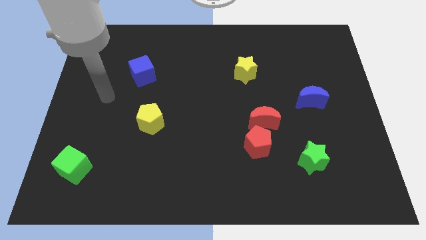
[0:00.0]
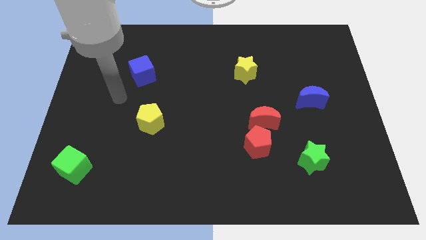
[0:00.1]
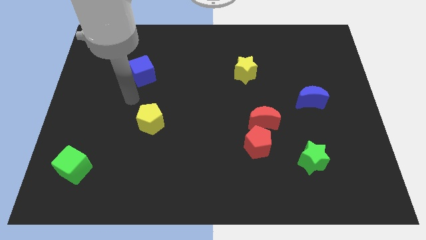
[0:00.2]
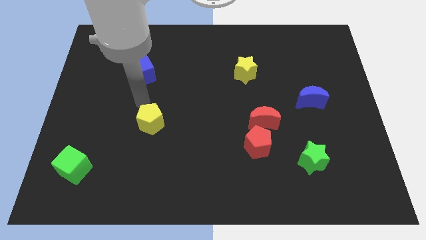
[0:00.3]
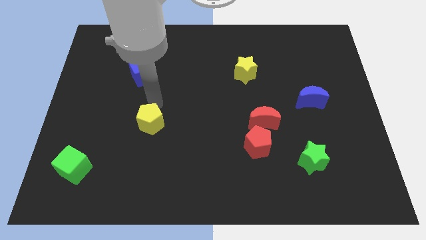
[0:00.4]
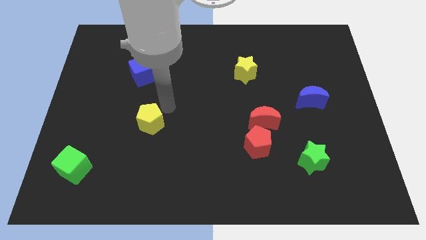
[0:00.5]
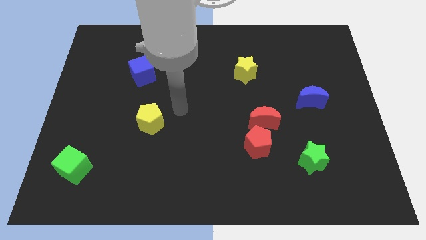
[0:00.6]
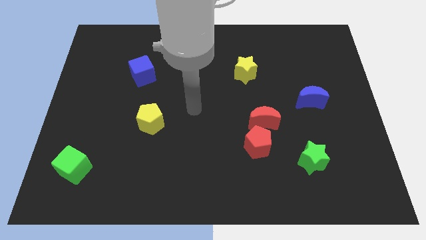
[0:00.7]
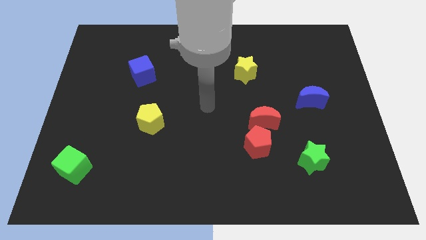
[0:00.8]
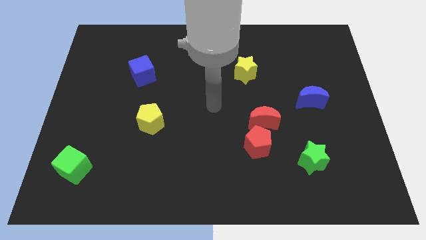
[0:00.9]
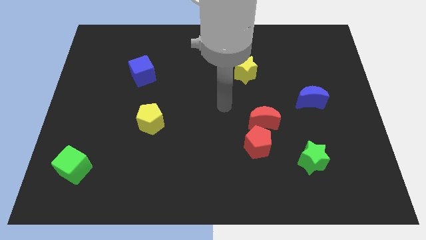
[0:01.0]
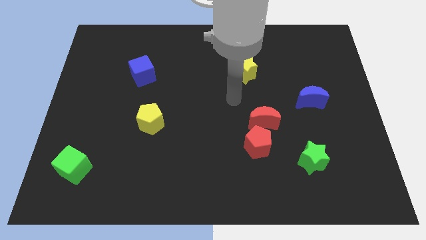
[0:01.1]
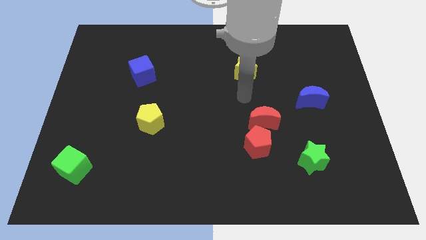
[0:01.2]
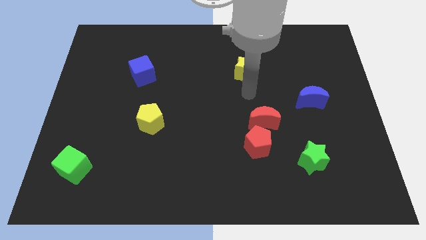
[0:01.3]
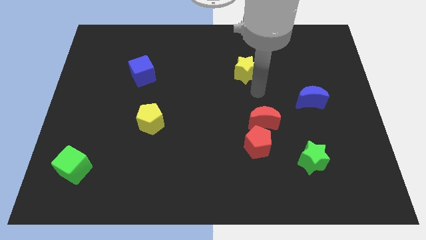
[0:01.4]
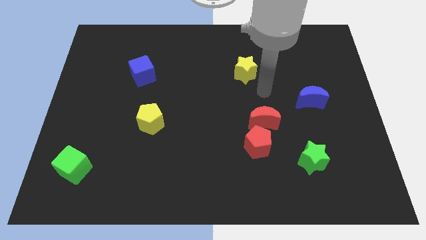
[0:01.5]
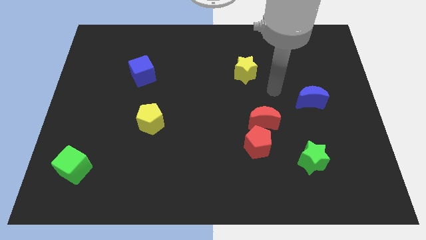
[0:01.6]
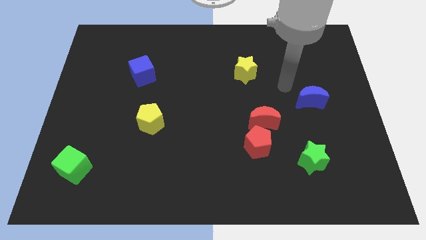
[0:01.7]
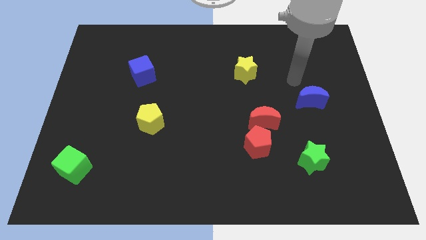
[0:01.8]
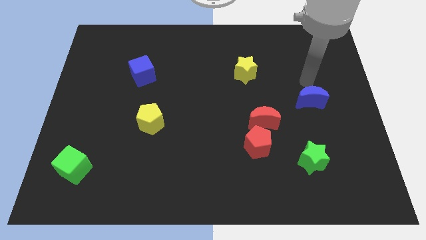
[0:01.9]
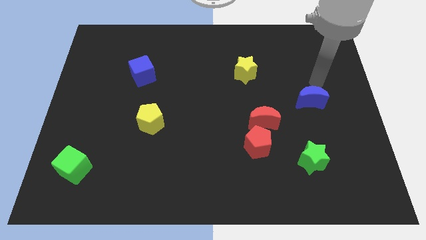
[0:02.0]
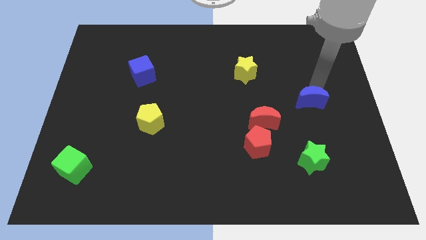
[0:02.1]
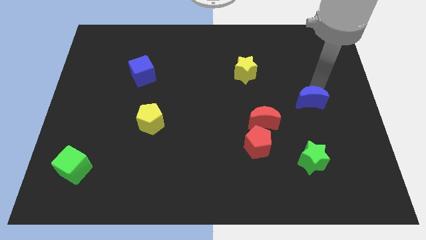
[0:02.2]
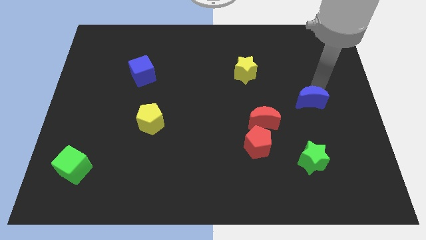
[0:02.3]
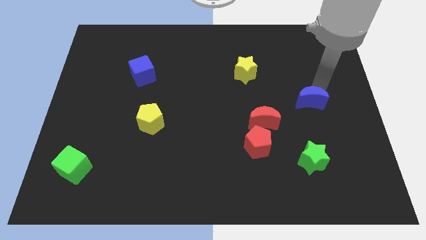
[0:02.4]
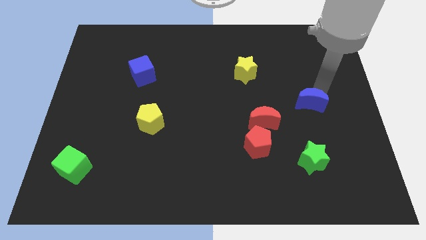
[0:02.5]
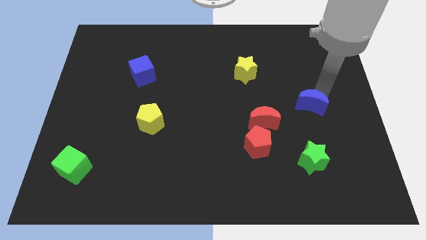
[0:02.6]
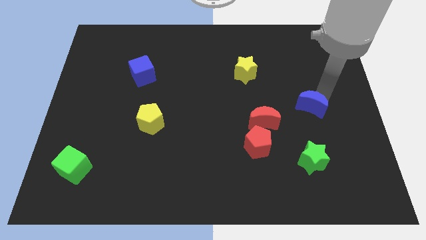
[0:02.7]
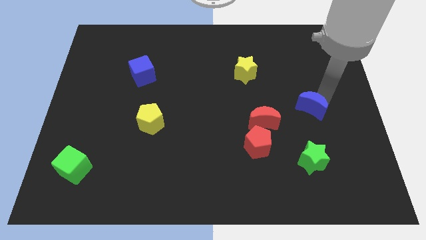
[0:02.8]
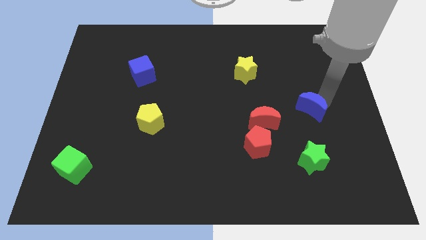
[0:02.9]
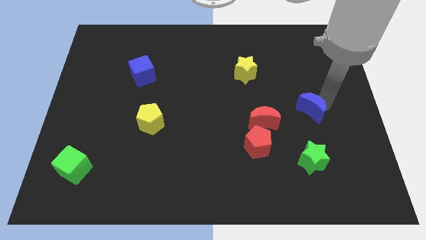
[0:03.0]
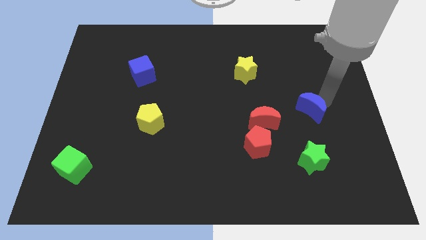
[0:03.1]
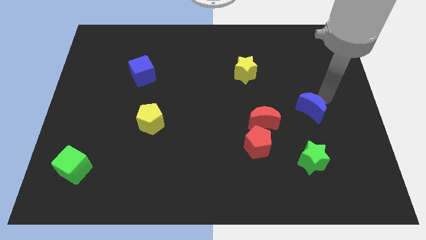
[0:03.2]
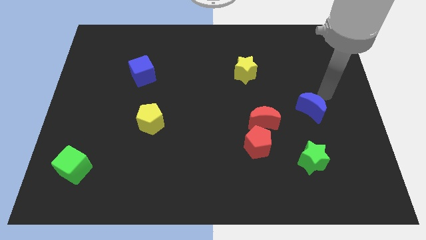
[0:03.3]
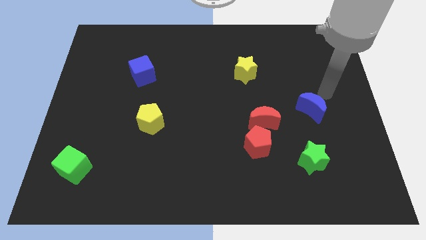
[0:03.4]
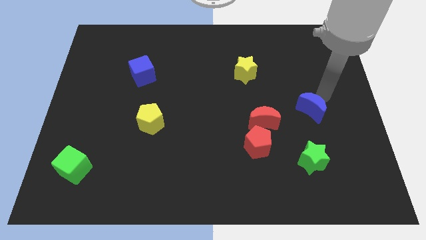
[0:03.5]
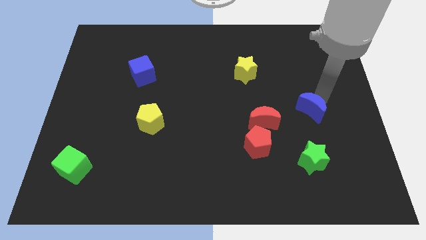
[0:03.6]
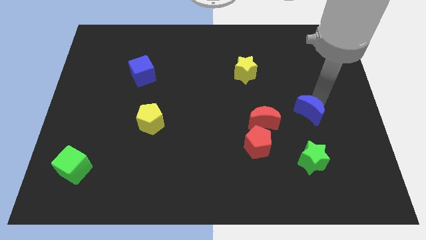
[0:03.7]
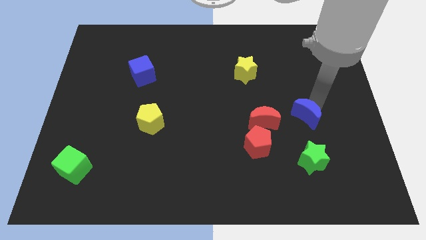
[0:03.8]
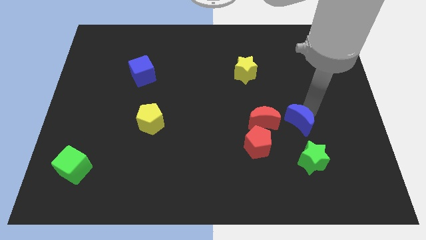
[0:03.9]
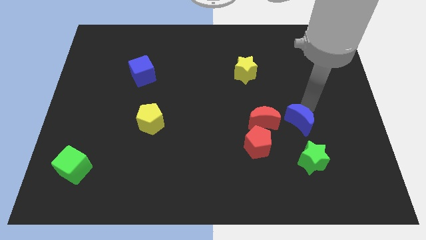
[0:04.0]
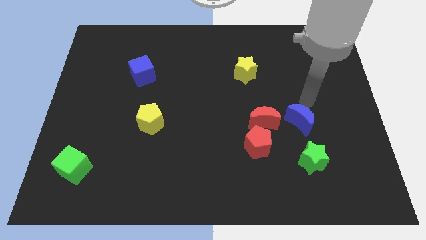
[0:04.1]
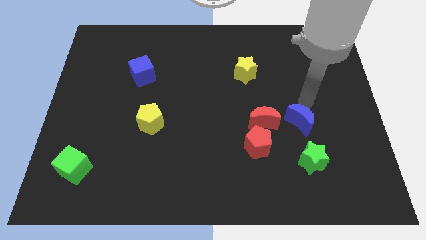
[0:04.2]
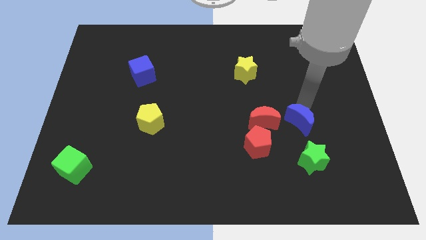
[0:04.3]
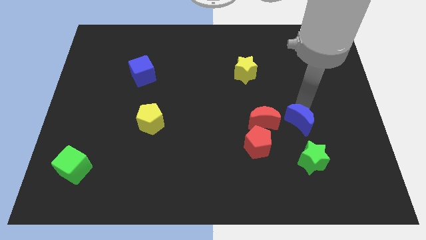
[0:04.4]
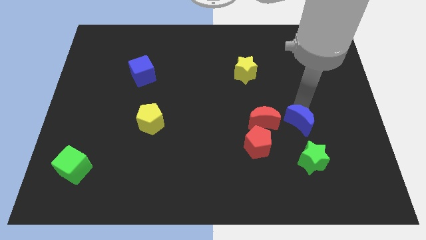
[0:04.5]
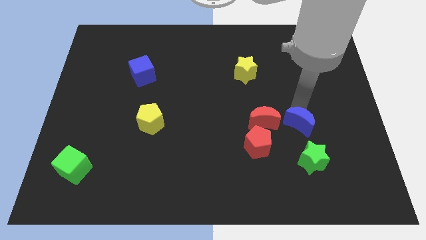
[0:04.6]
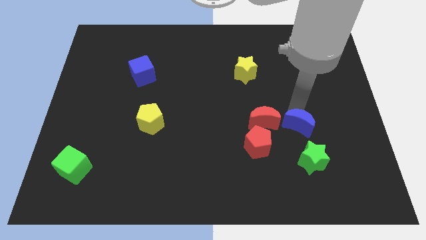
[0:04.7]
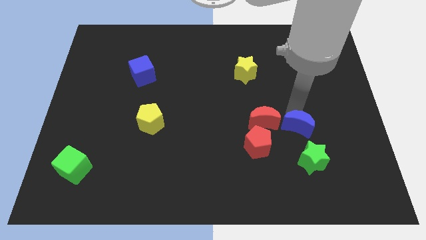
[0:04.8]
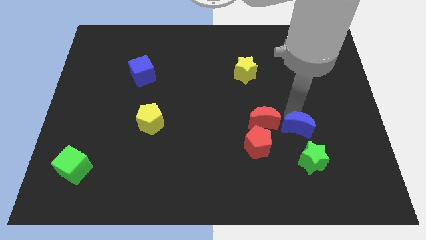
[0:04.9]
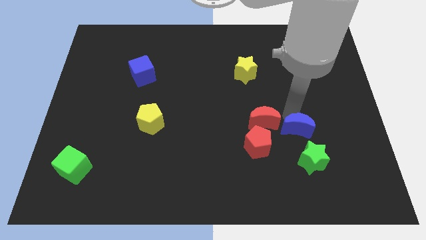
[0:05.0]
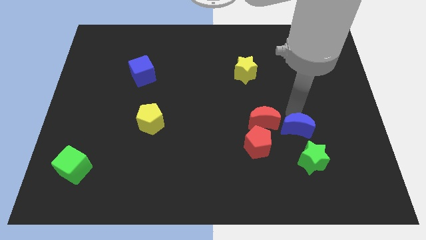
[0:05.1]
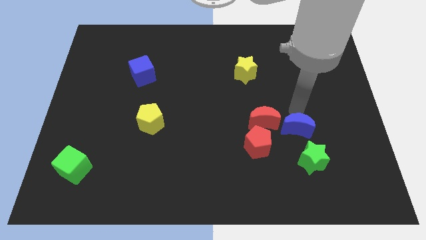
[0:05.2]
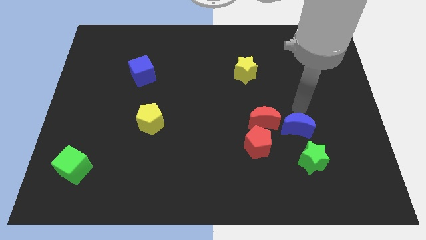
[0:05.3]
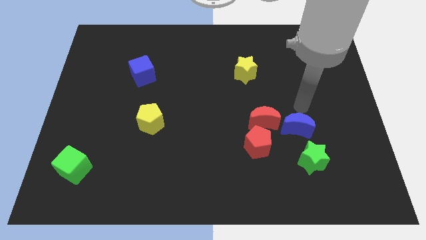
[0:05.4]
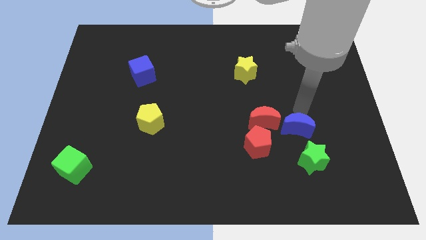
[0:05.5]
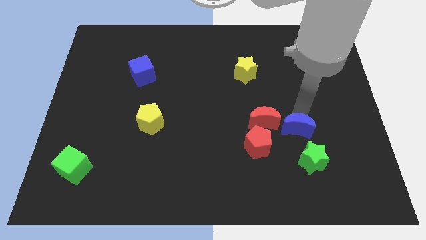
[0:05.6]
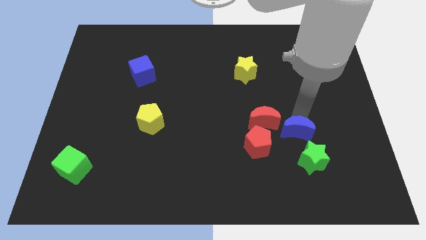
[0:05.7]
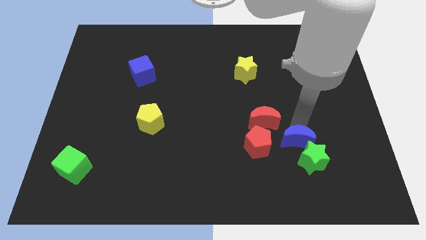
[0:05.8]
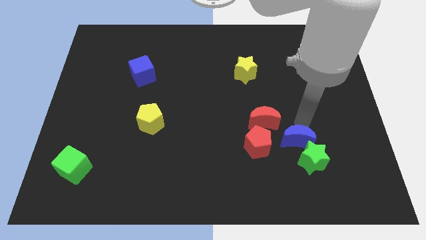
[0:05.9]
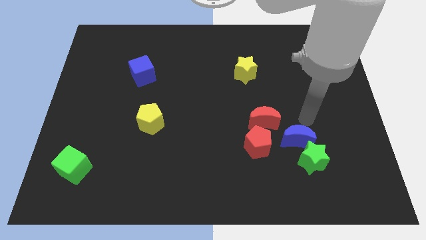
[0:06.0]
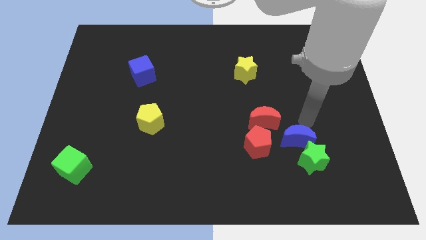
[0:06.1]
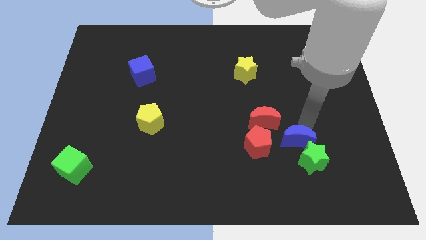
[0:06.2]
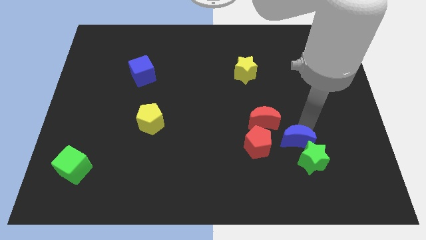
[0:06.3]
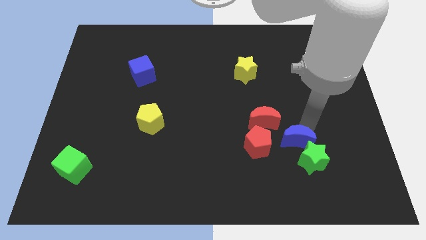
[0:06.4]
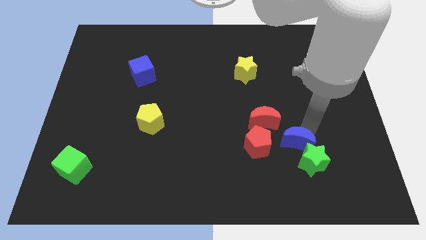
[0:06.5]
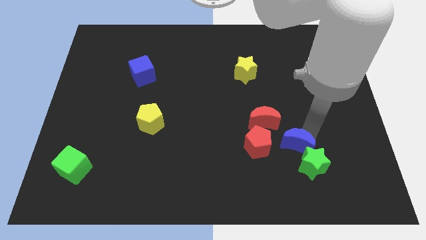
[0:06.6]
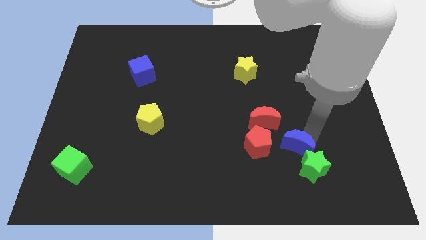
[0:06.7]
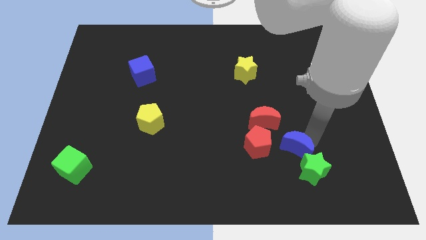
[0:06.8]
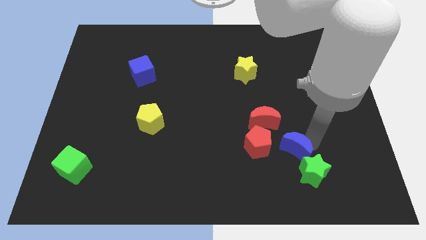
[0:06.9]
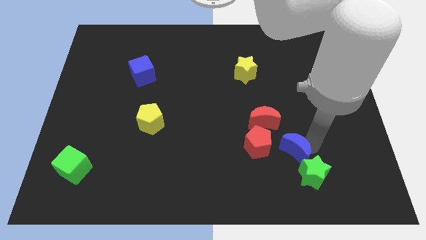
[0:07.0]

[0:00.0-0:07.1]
move the blue moon diagonally down and to the right of the red pentagon
